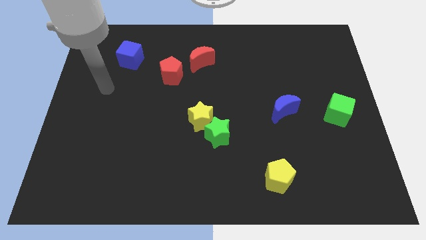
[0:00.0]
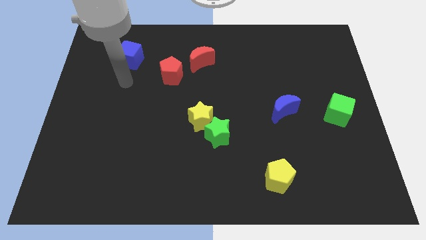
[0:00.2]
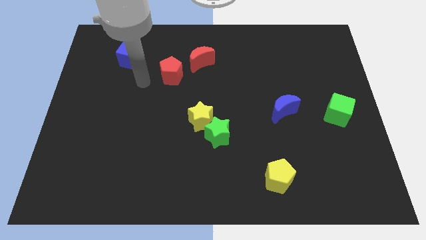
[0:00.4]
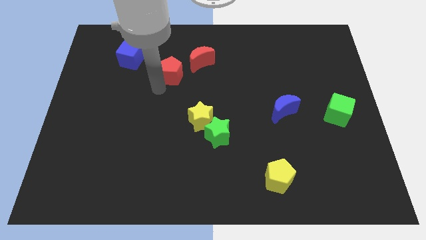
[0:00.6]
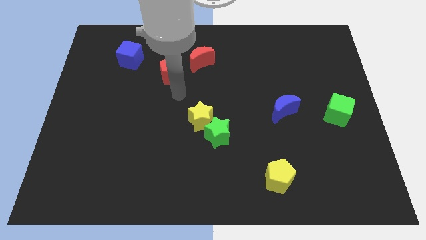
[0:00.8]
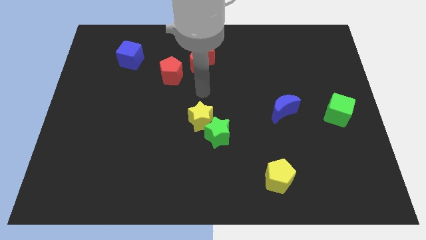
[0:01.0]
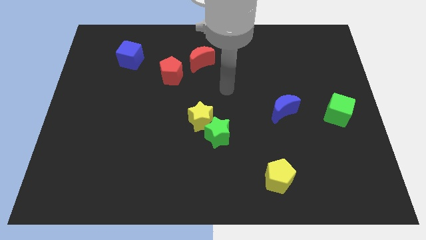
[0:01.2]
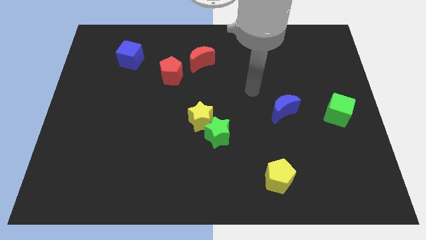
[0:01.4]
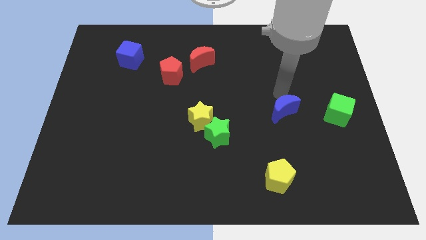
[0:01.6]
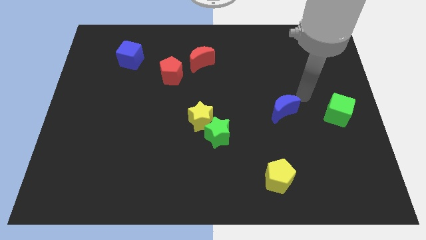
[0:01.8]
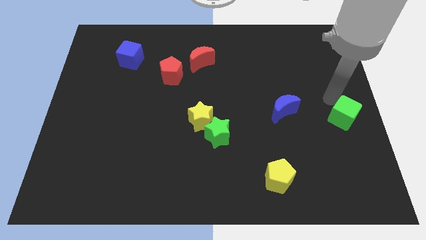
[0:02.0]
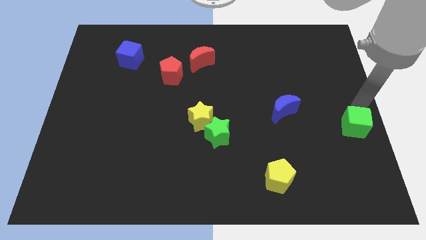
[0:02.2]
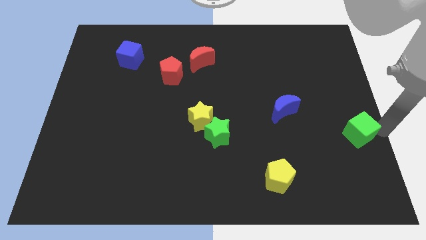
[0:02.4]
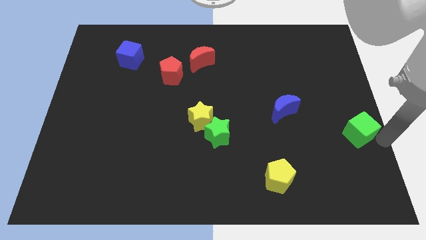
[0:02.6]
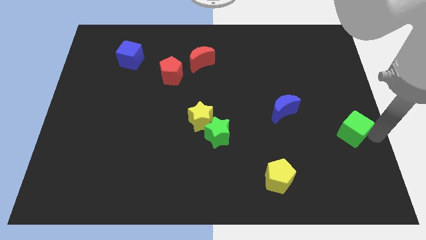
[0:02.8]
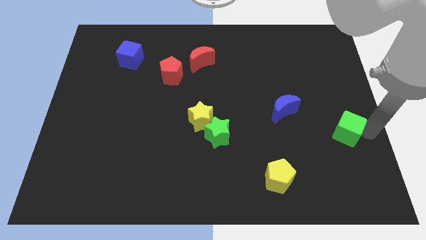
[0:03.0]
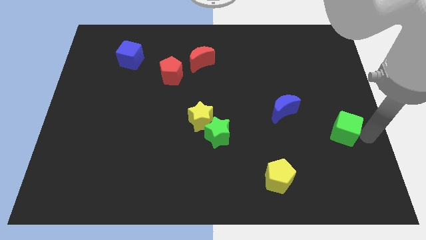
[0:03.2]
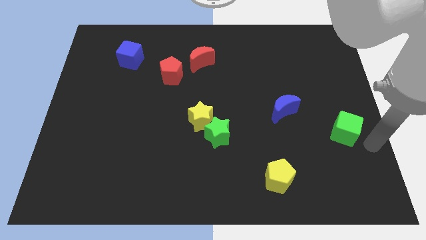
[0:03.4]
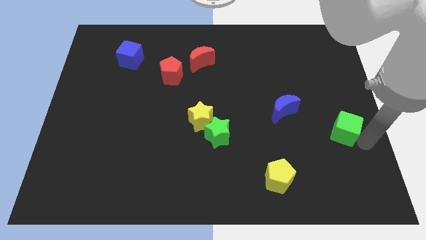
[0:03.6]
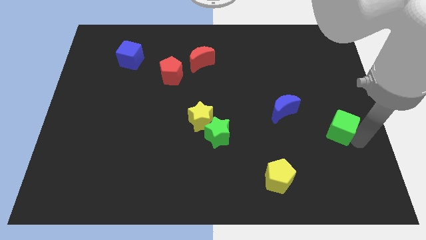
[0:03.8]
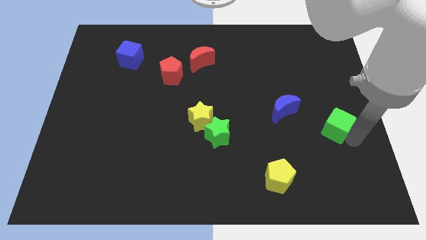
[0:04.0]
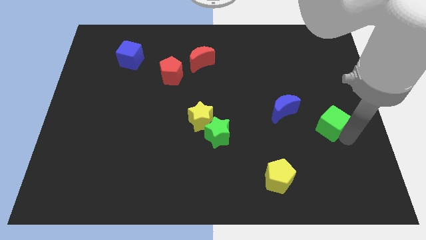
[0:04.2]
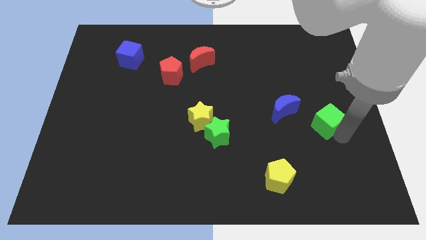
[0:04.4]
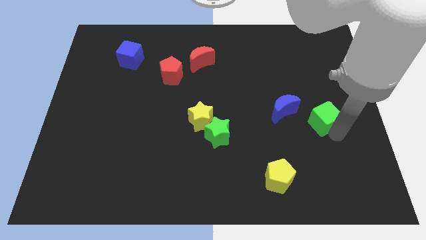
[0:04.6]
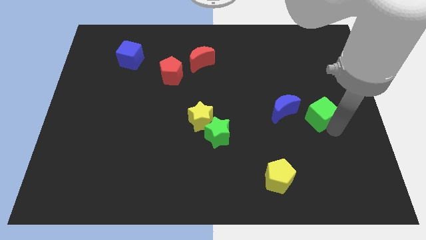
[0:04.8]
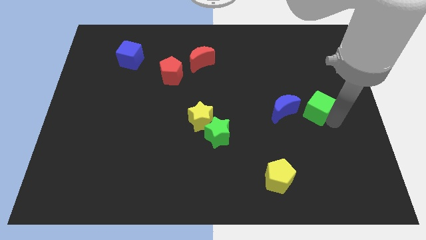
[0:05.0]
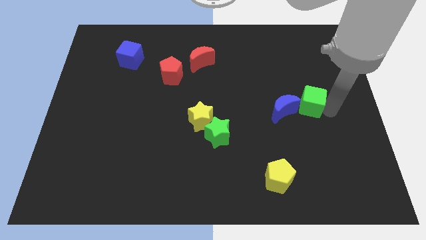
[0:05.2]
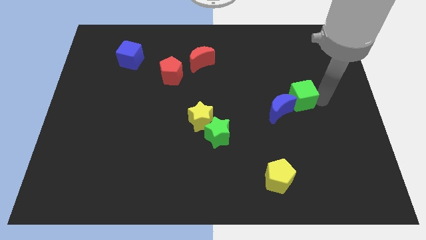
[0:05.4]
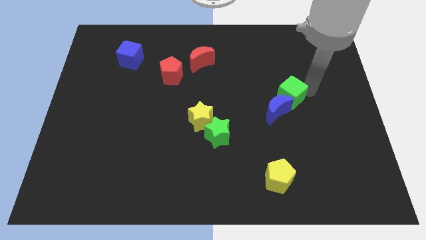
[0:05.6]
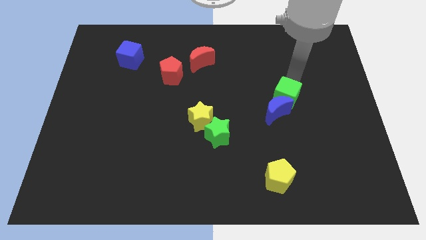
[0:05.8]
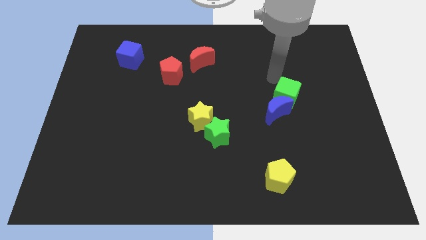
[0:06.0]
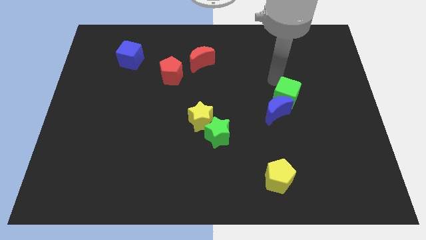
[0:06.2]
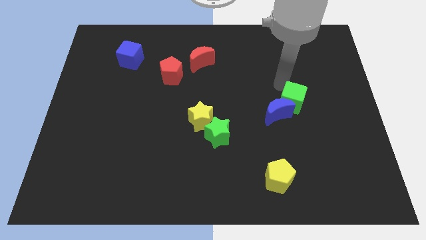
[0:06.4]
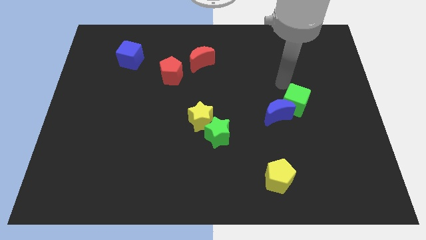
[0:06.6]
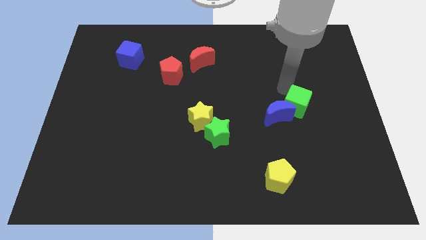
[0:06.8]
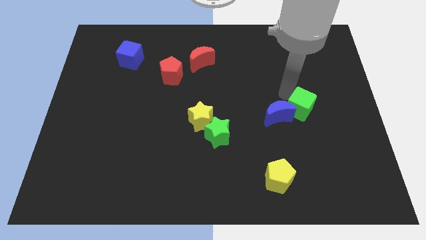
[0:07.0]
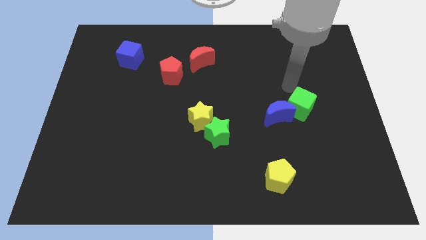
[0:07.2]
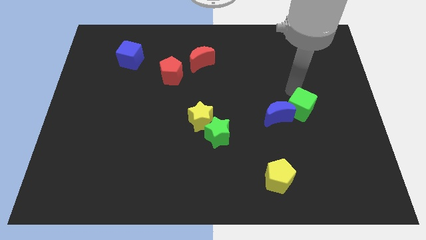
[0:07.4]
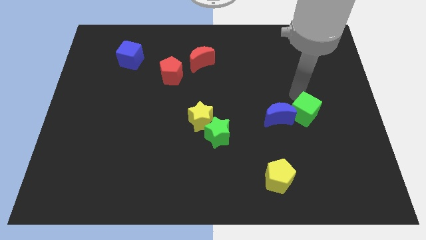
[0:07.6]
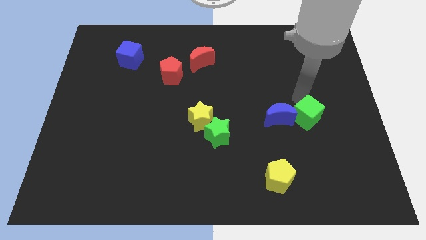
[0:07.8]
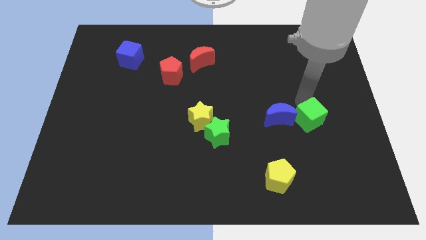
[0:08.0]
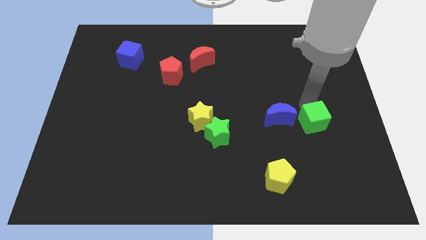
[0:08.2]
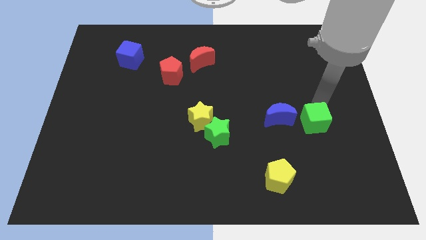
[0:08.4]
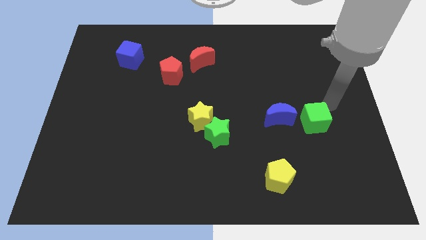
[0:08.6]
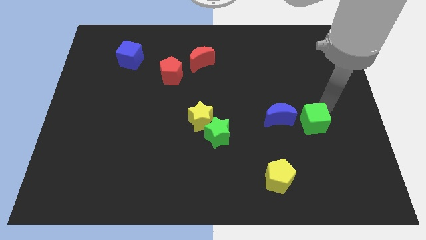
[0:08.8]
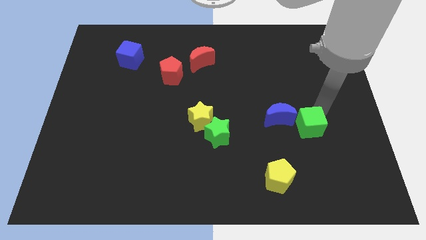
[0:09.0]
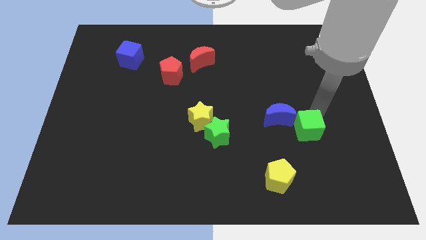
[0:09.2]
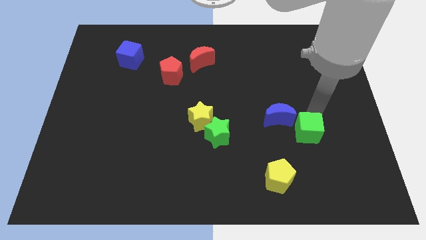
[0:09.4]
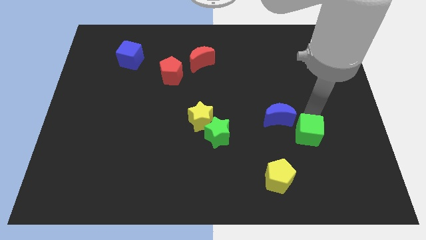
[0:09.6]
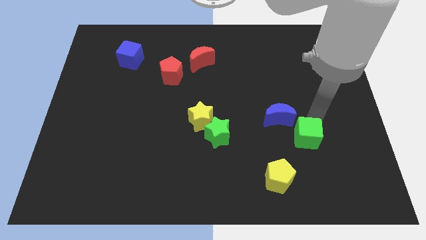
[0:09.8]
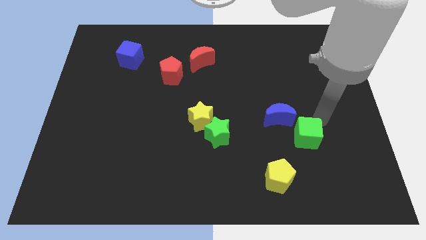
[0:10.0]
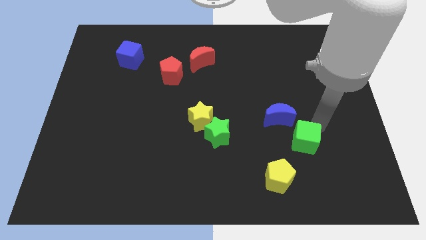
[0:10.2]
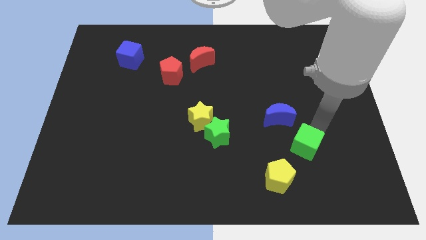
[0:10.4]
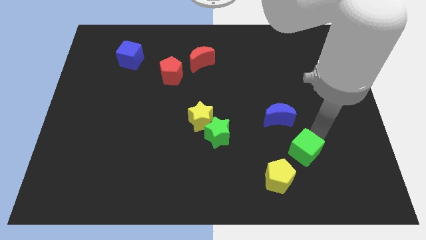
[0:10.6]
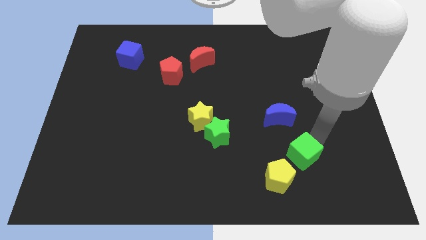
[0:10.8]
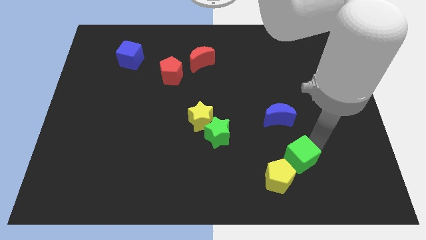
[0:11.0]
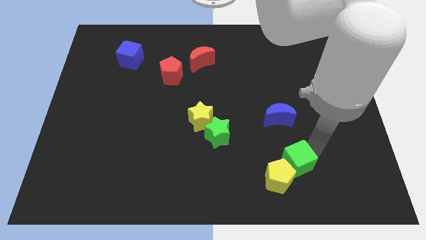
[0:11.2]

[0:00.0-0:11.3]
push the green cube towards the yellow pentagon
